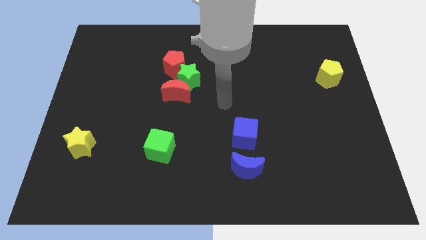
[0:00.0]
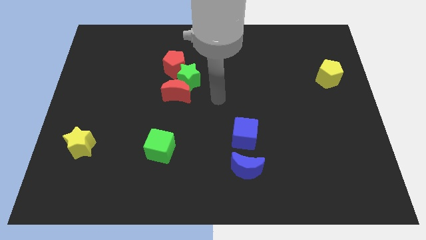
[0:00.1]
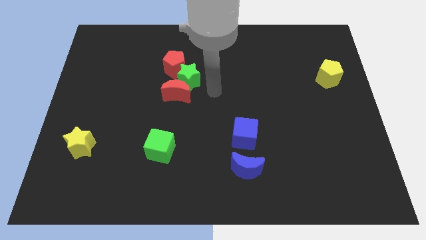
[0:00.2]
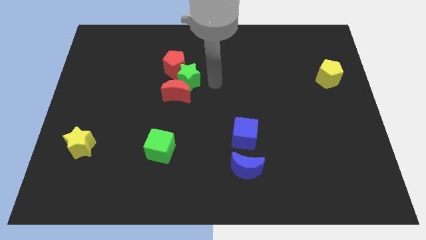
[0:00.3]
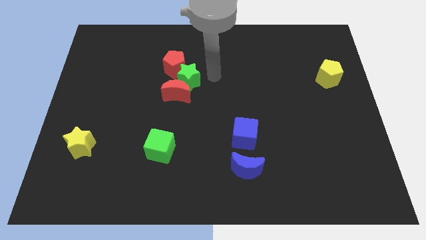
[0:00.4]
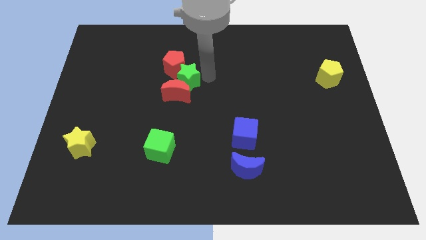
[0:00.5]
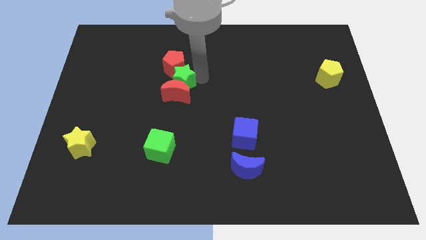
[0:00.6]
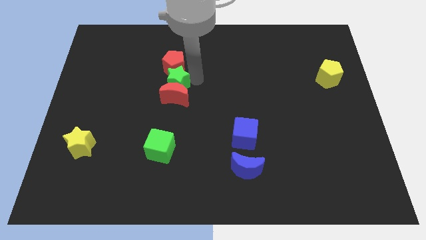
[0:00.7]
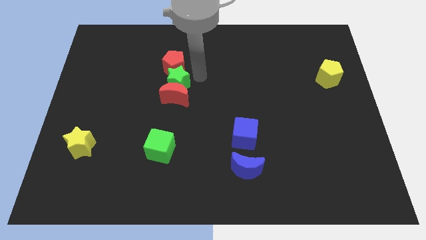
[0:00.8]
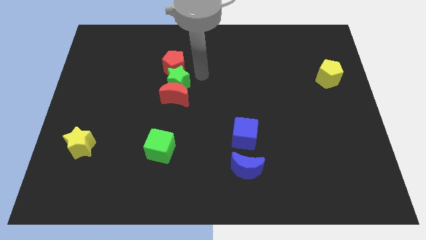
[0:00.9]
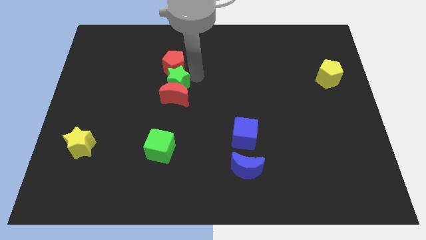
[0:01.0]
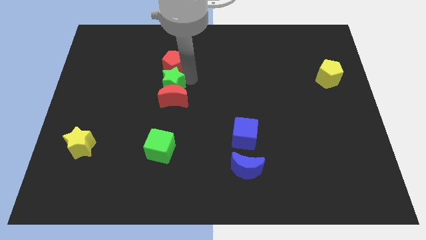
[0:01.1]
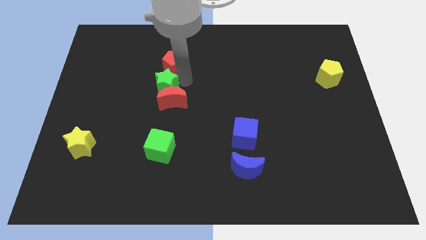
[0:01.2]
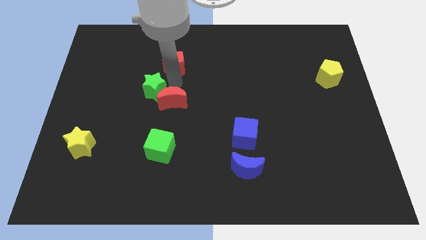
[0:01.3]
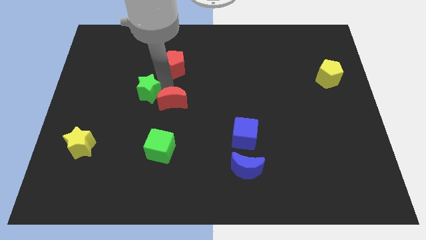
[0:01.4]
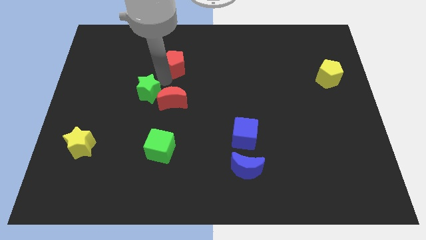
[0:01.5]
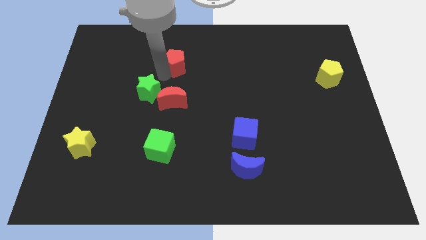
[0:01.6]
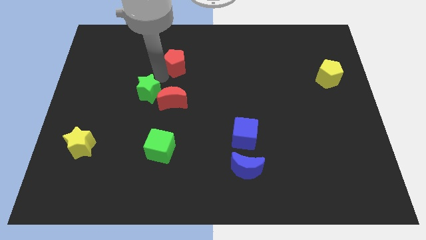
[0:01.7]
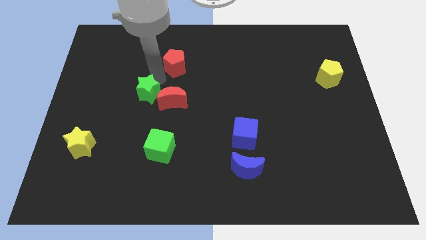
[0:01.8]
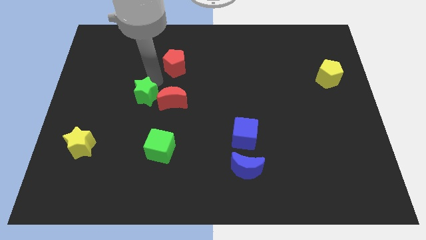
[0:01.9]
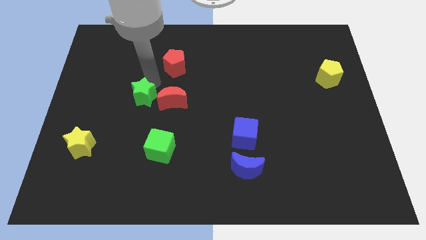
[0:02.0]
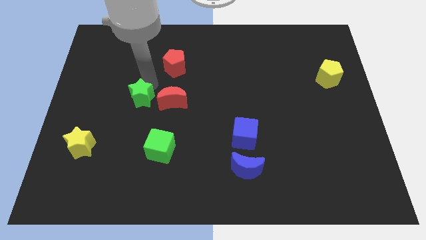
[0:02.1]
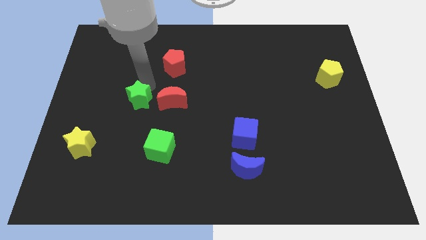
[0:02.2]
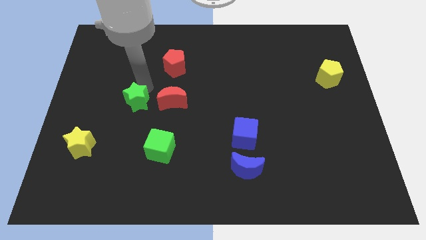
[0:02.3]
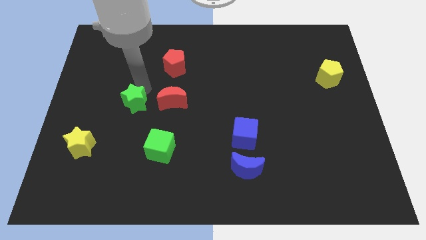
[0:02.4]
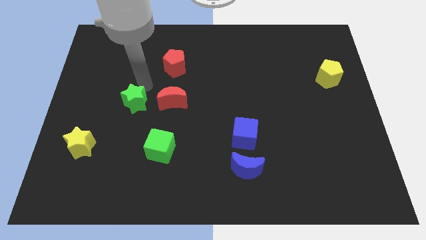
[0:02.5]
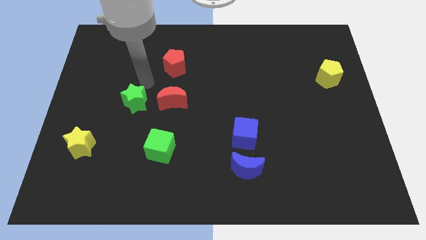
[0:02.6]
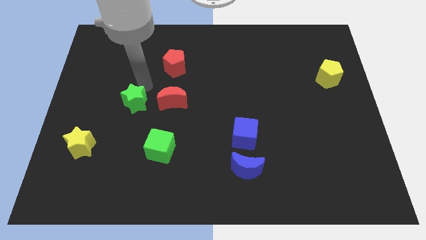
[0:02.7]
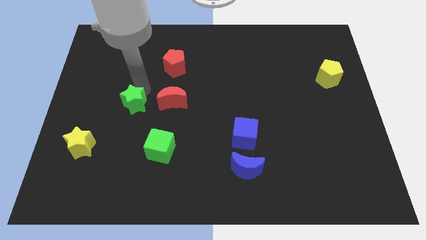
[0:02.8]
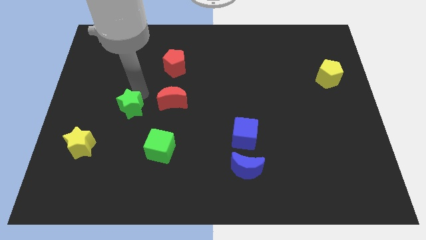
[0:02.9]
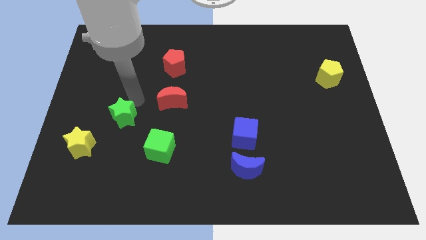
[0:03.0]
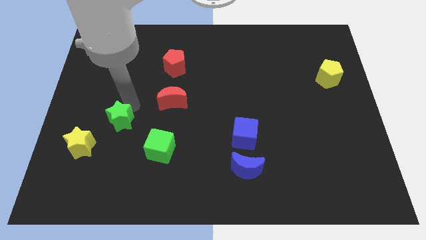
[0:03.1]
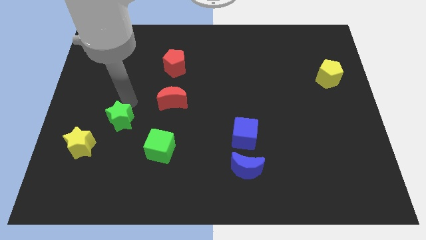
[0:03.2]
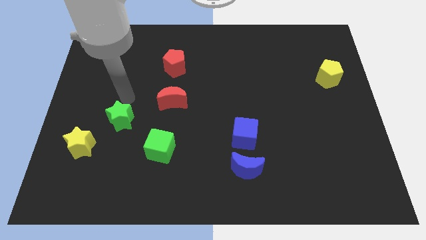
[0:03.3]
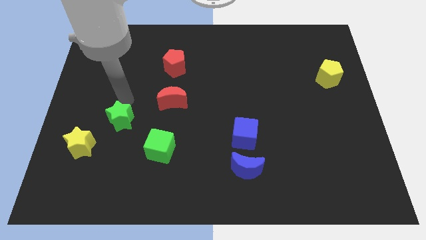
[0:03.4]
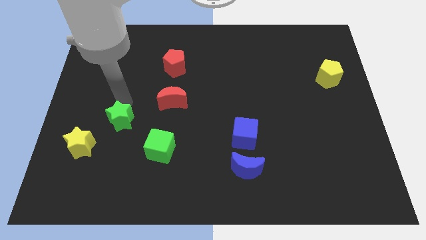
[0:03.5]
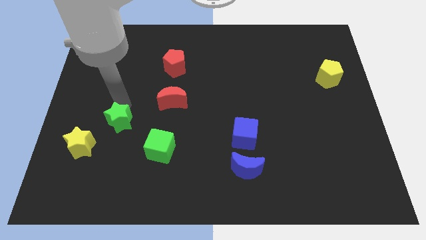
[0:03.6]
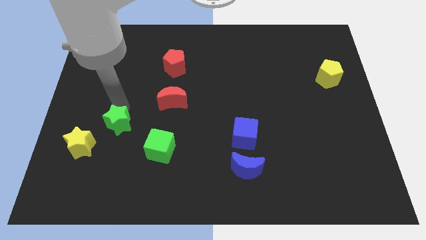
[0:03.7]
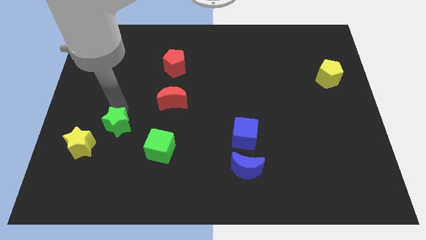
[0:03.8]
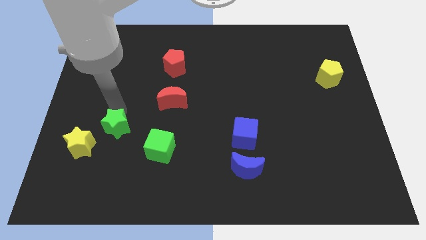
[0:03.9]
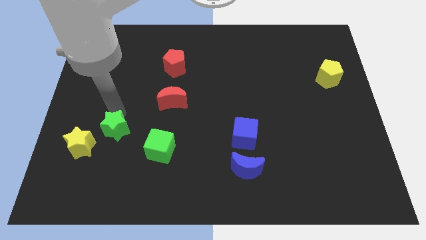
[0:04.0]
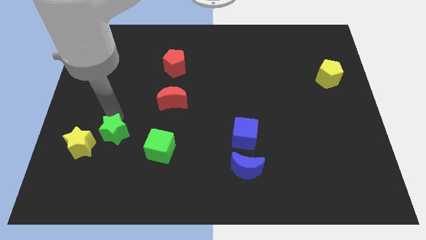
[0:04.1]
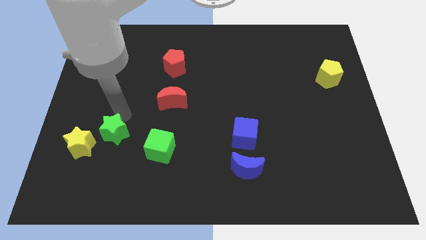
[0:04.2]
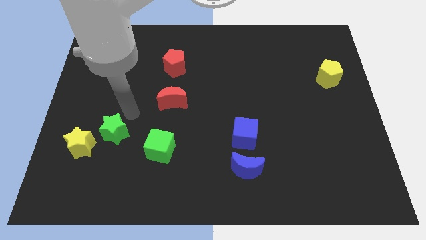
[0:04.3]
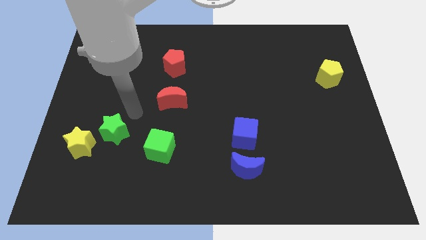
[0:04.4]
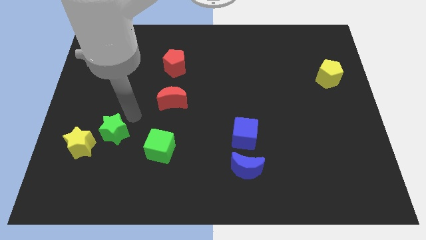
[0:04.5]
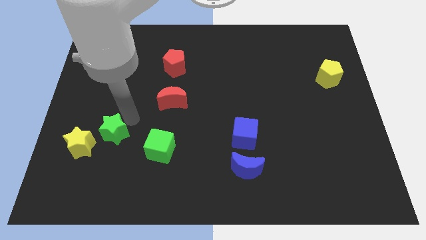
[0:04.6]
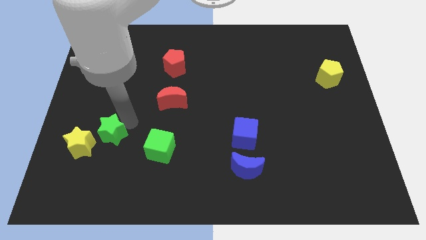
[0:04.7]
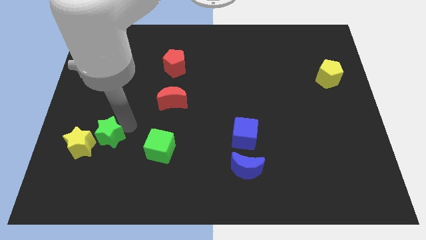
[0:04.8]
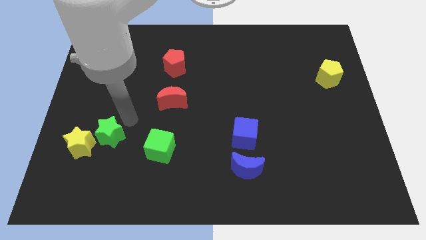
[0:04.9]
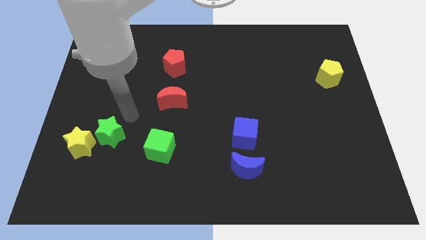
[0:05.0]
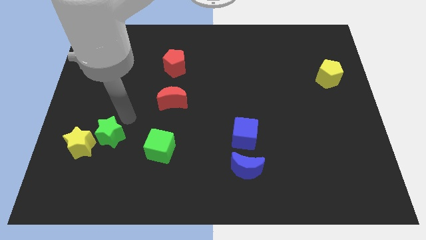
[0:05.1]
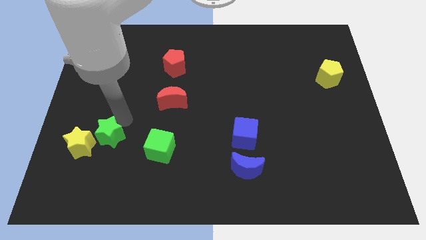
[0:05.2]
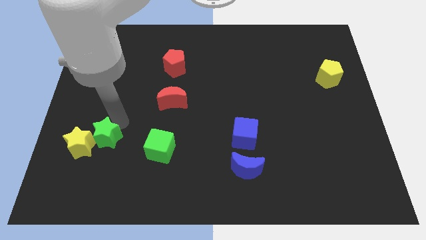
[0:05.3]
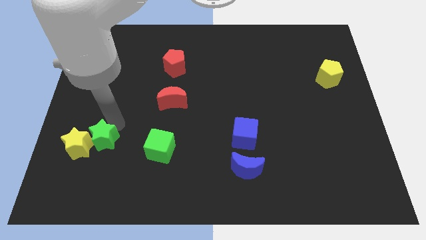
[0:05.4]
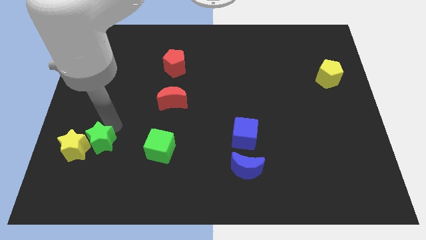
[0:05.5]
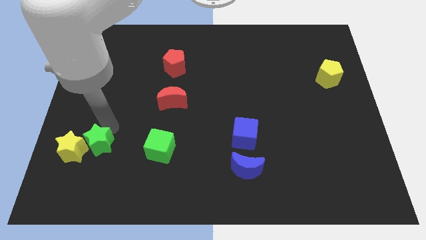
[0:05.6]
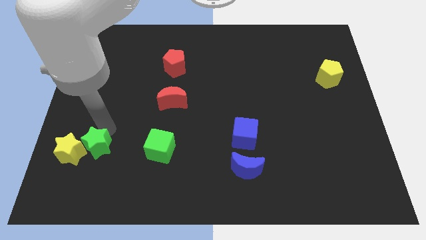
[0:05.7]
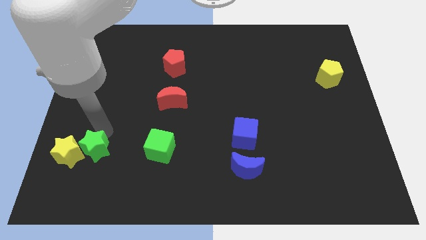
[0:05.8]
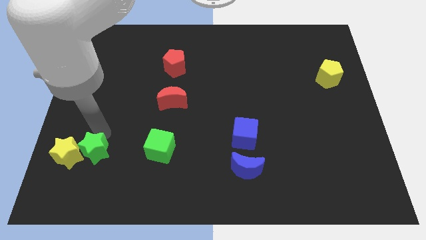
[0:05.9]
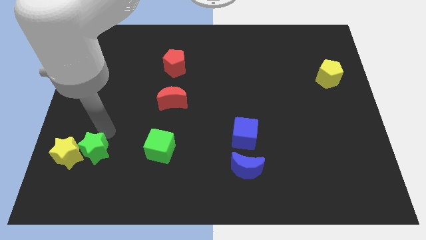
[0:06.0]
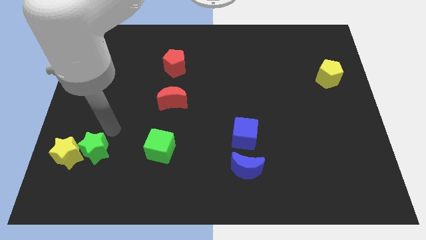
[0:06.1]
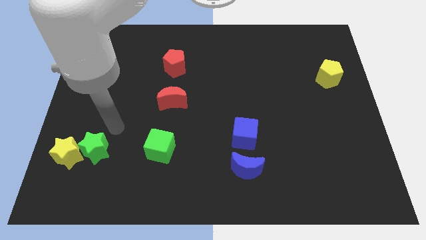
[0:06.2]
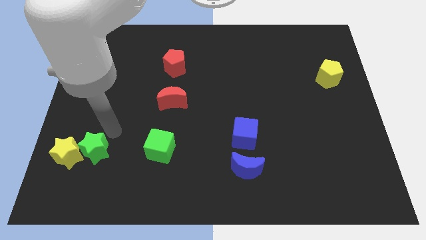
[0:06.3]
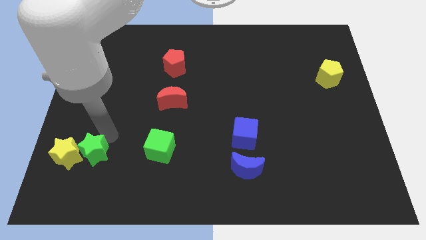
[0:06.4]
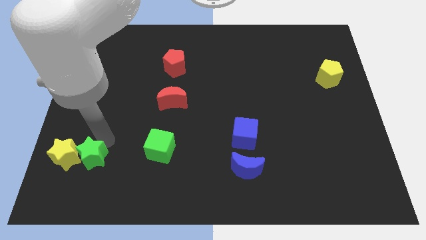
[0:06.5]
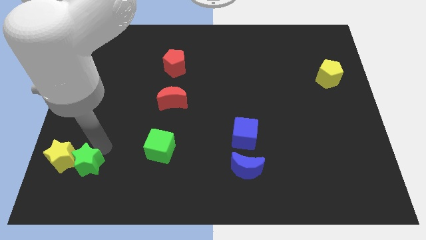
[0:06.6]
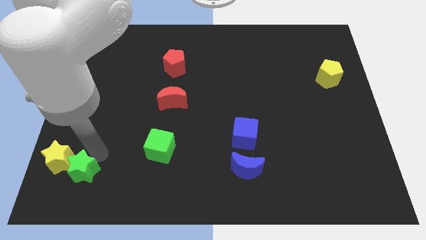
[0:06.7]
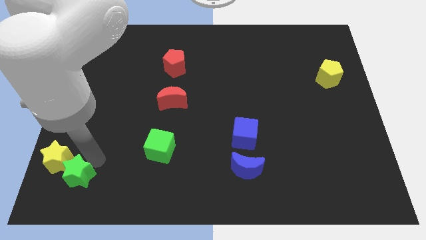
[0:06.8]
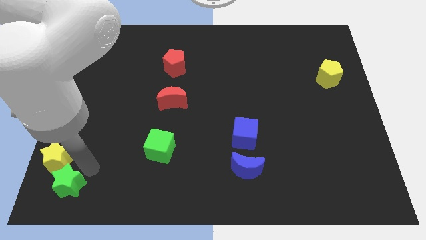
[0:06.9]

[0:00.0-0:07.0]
push the green star to the bottom left of the board
